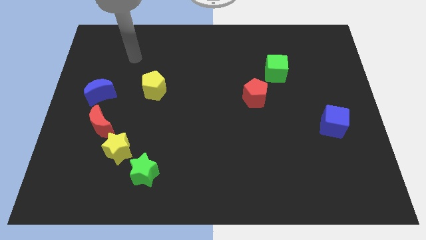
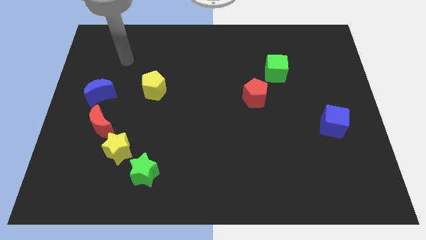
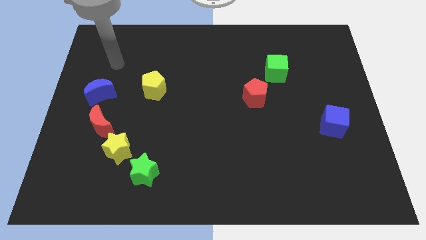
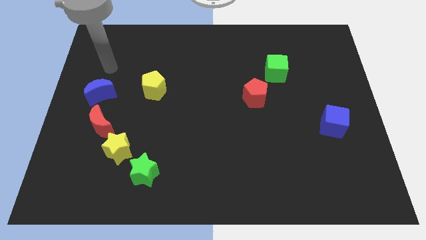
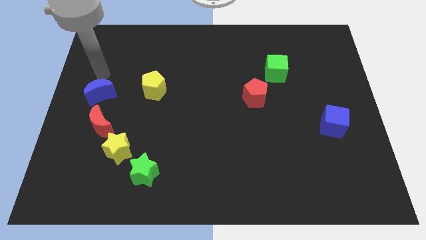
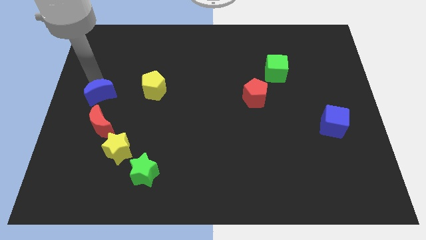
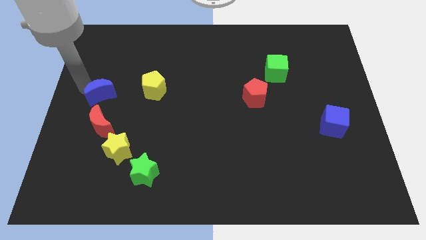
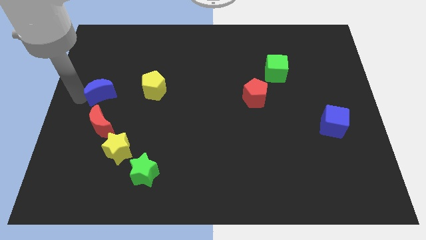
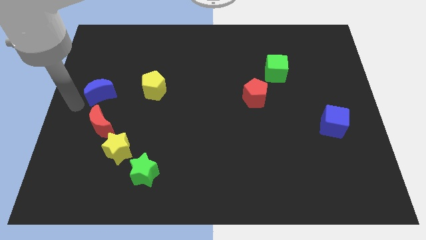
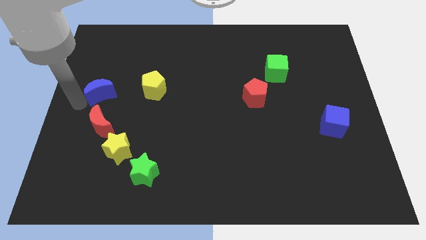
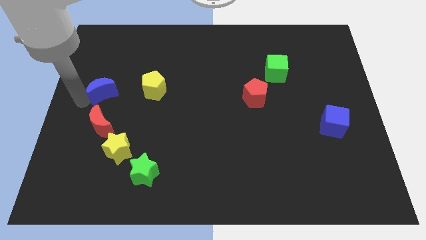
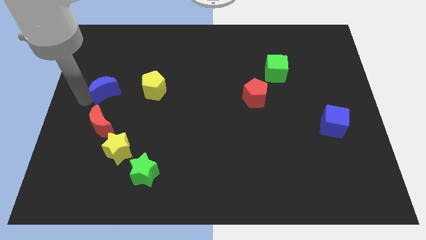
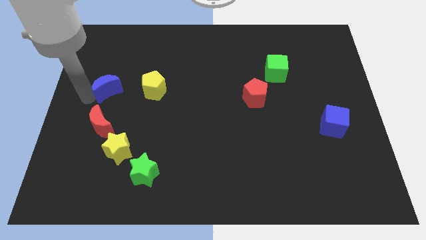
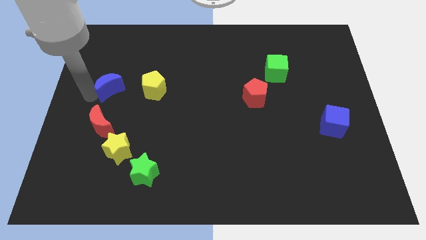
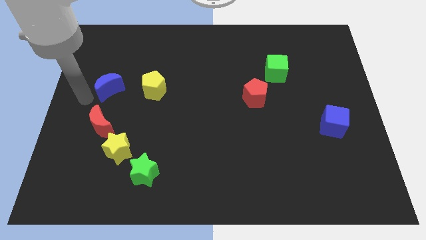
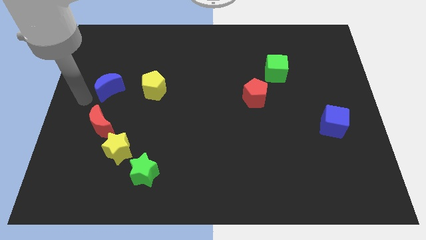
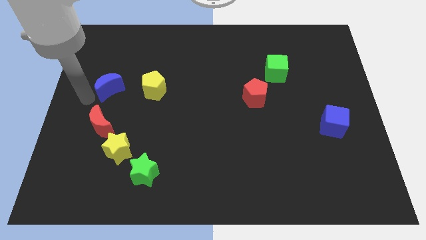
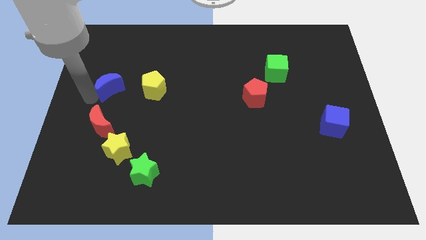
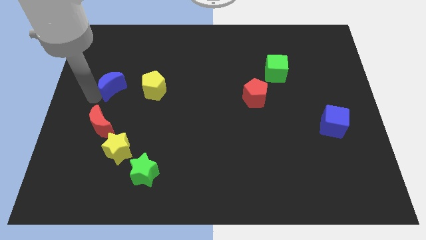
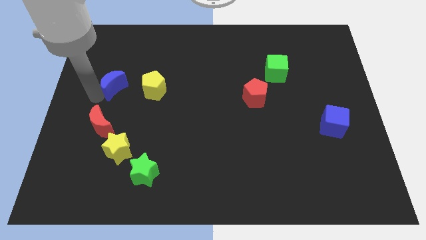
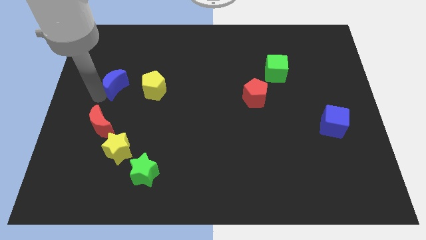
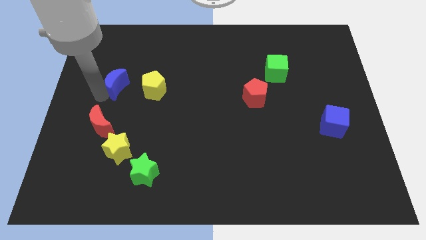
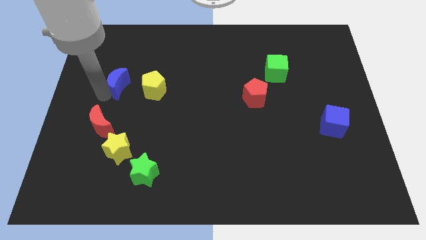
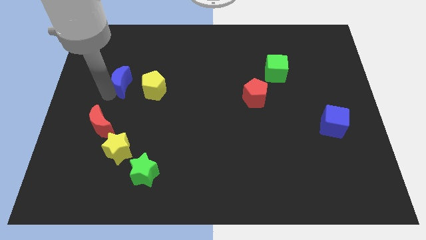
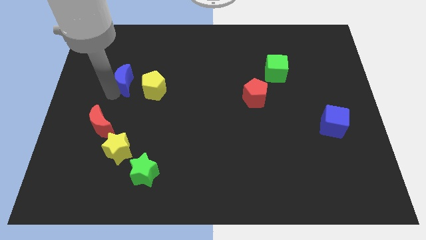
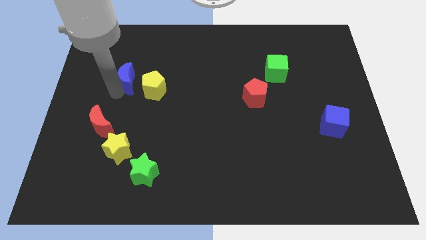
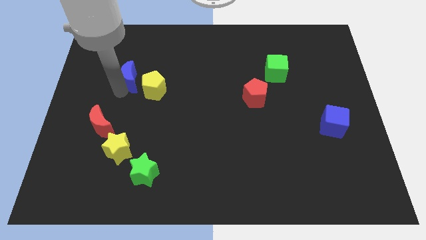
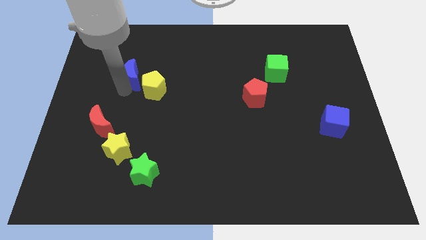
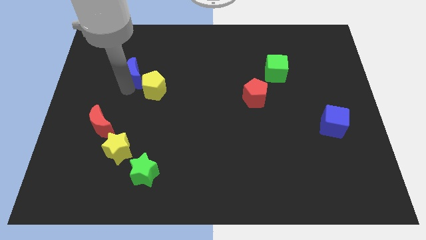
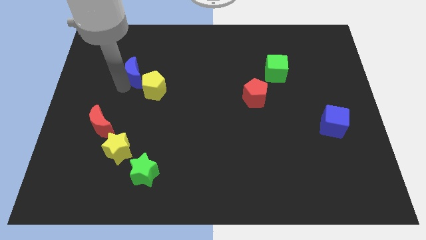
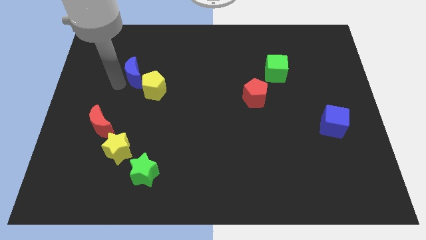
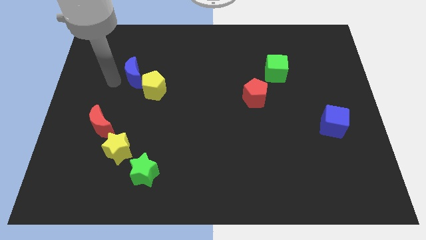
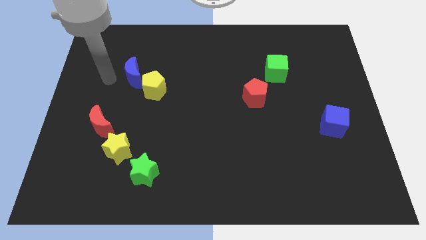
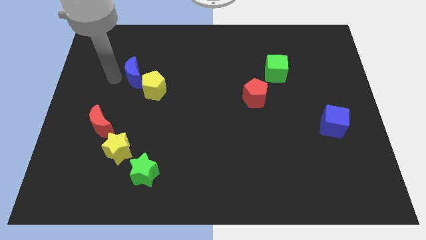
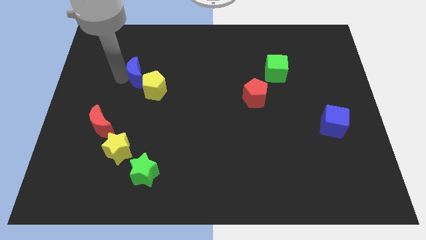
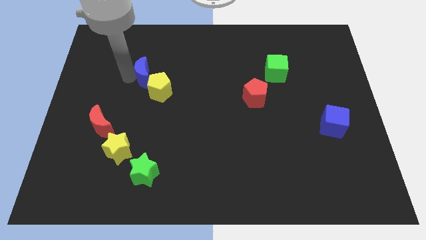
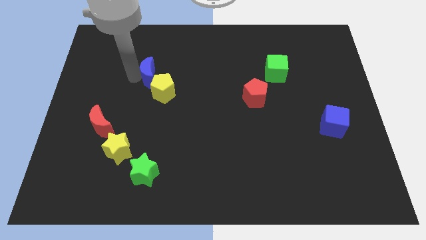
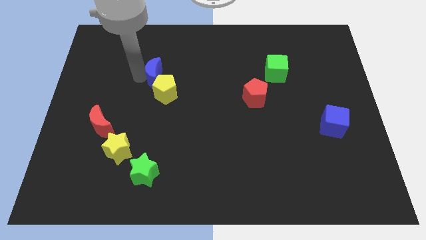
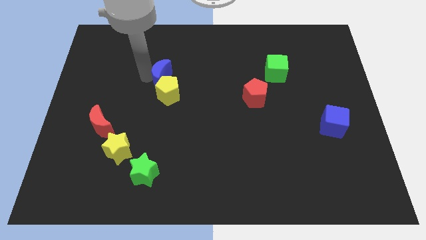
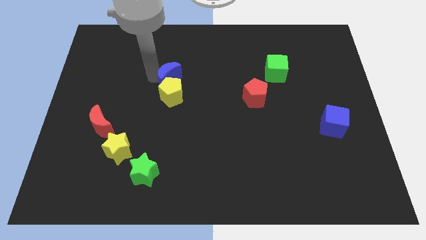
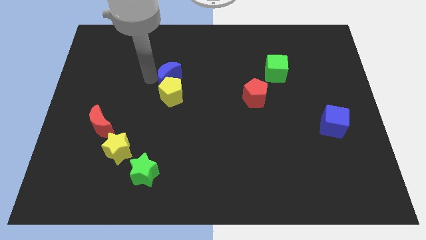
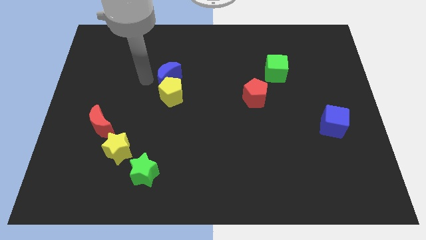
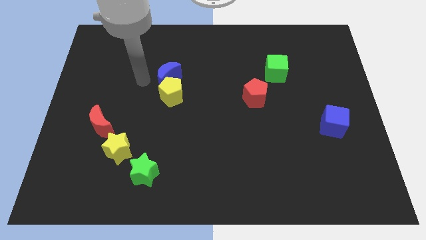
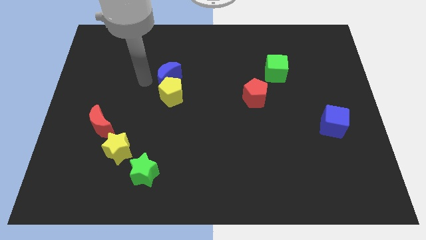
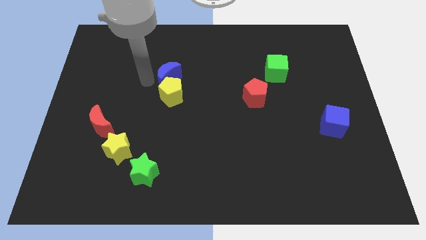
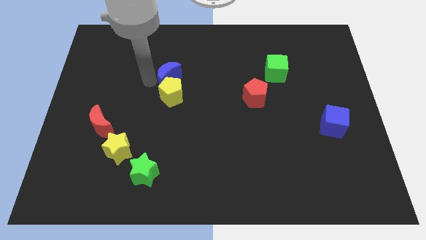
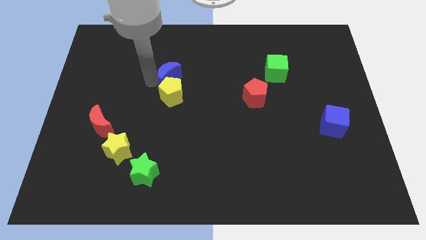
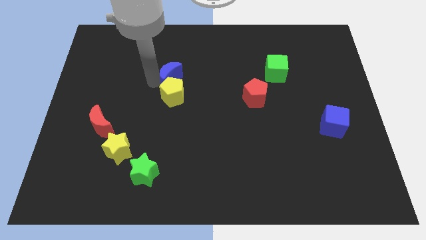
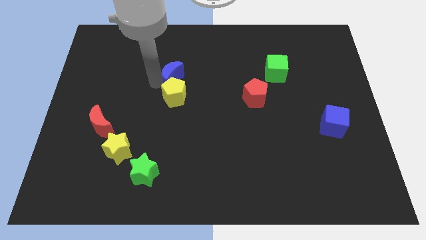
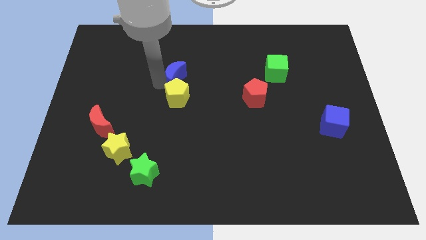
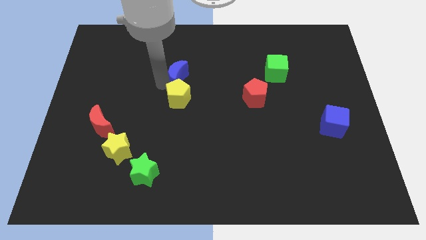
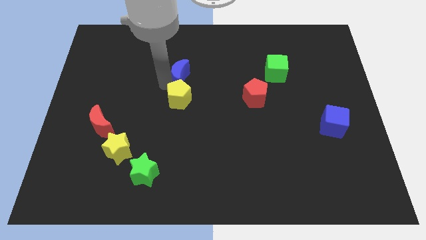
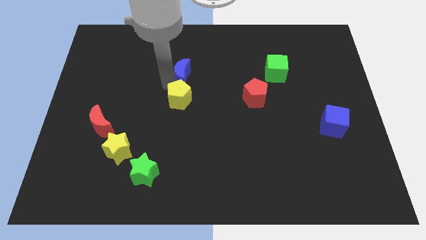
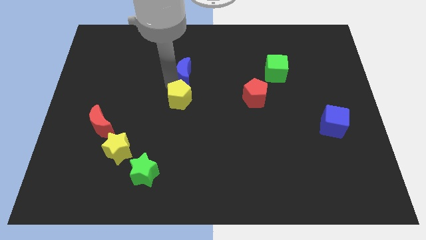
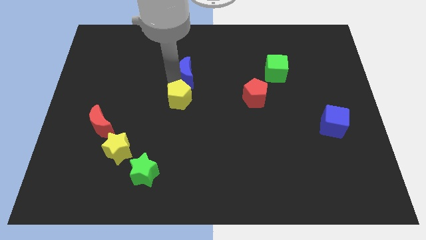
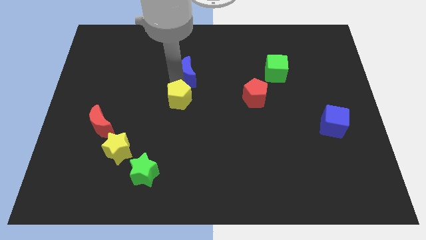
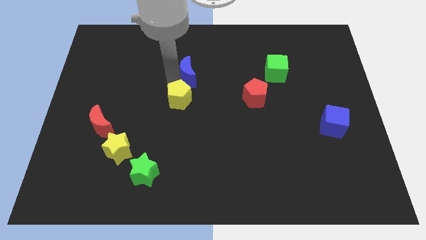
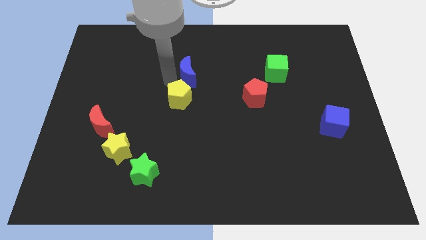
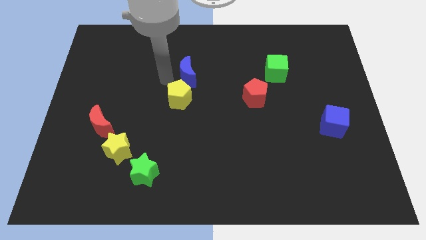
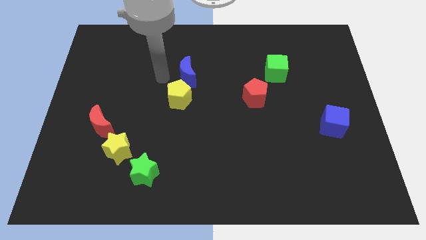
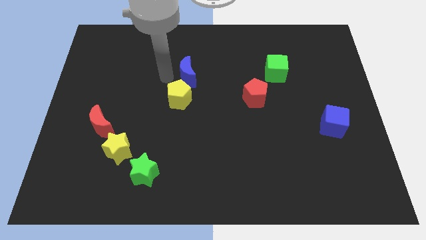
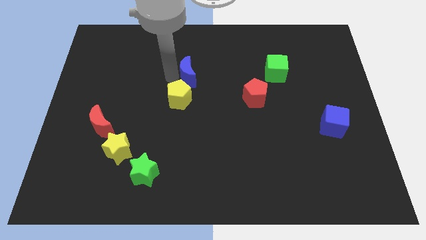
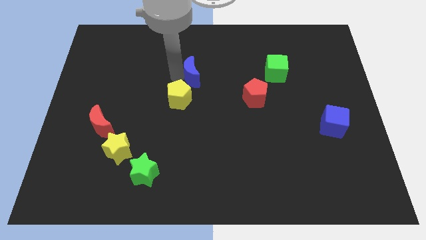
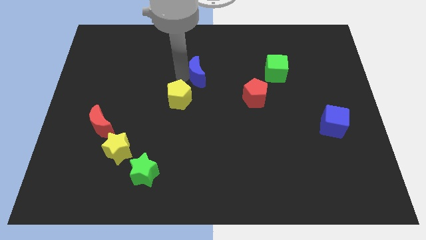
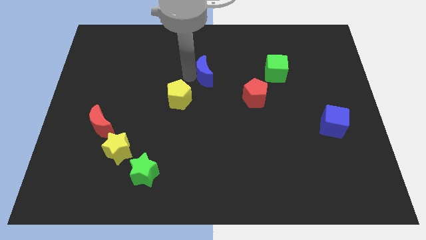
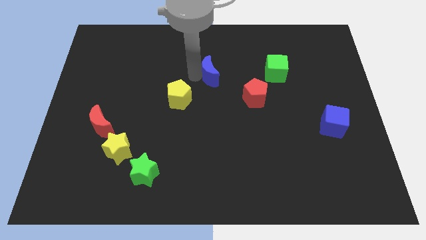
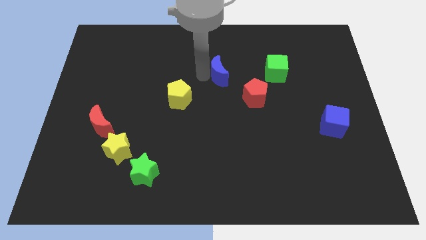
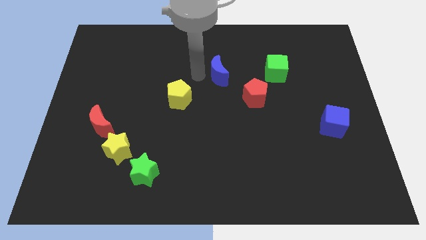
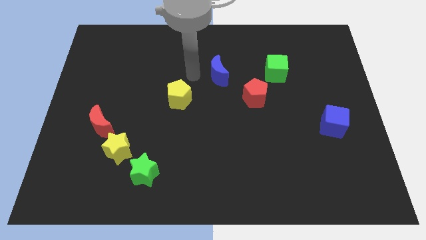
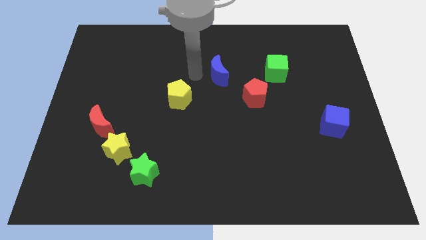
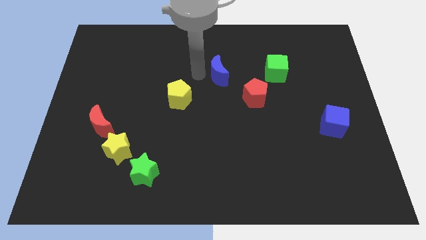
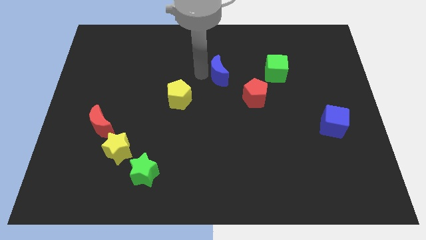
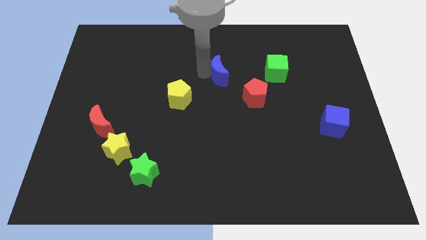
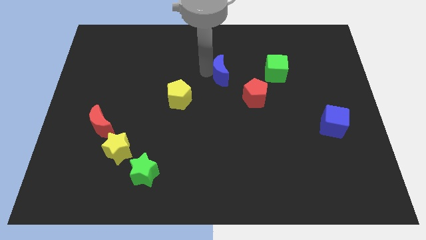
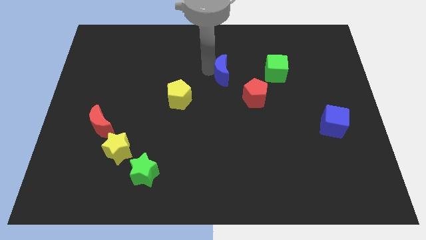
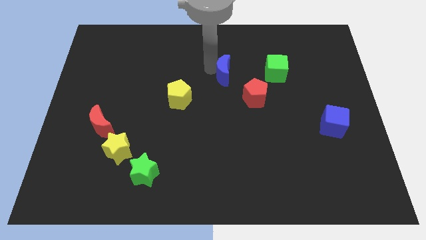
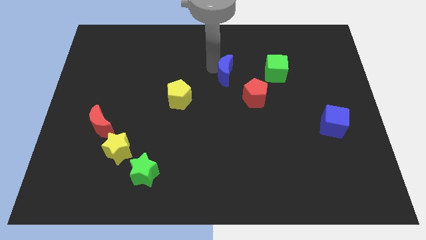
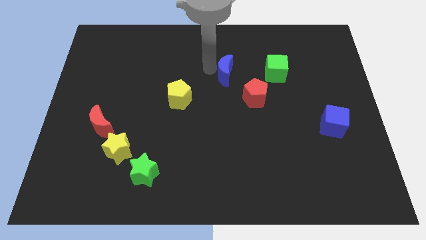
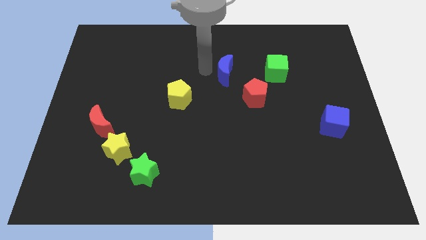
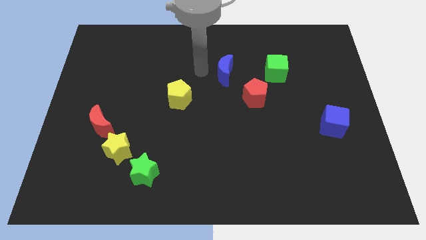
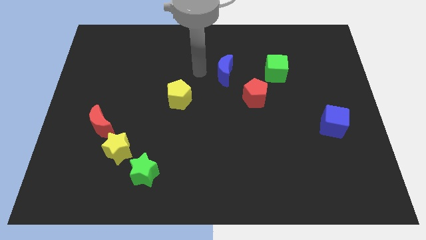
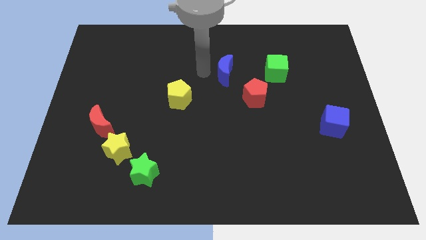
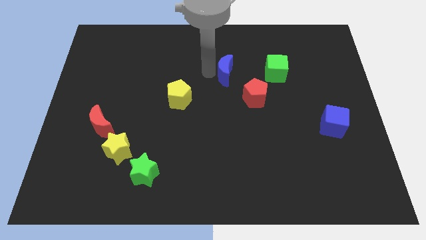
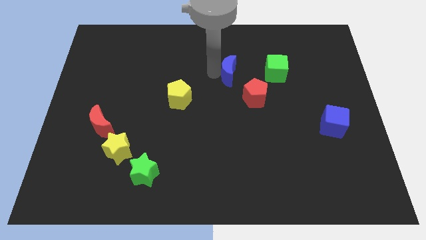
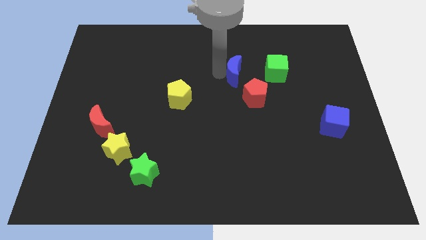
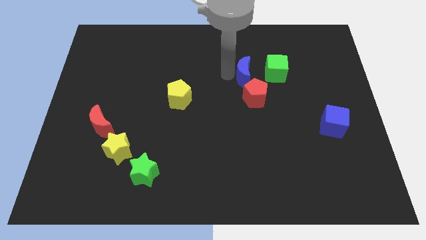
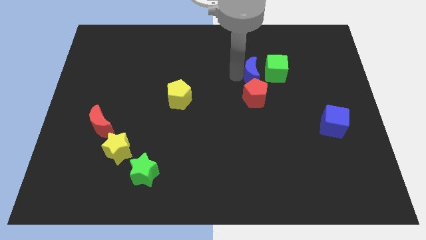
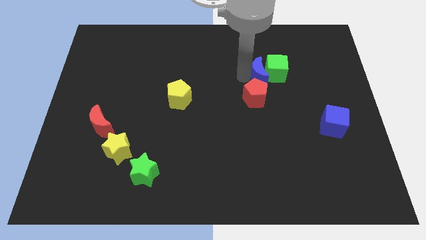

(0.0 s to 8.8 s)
put the blue moon close to the green cube
